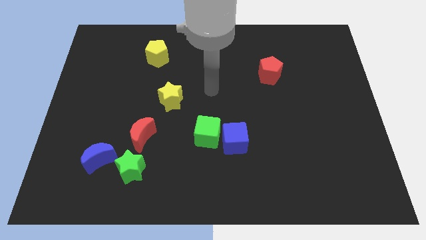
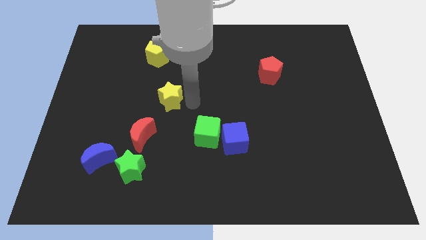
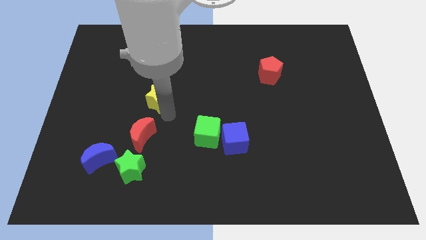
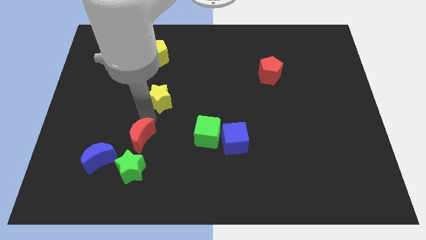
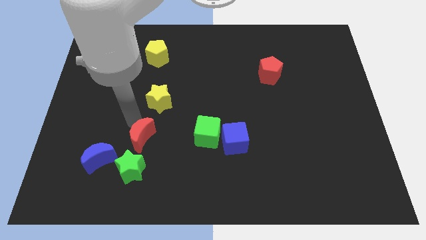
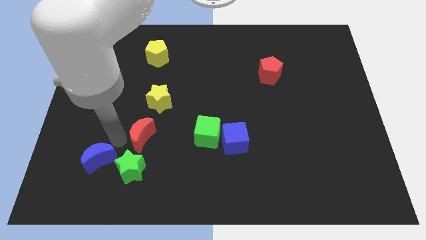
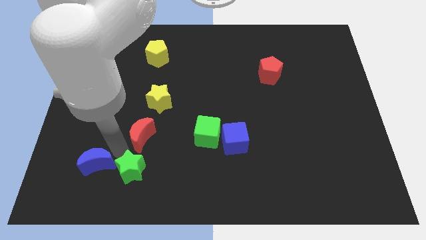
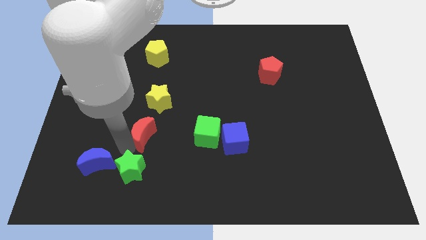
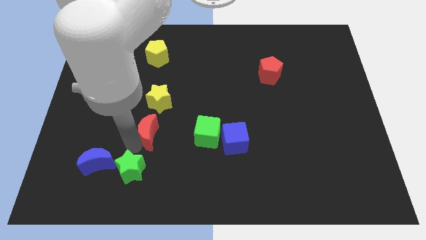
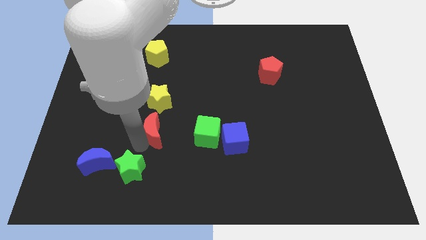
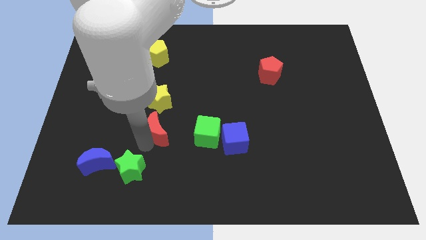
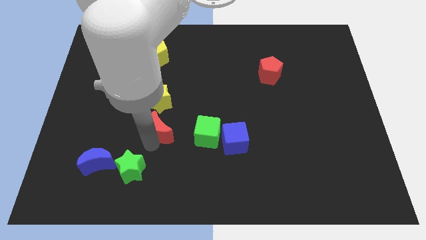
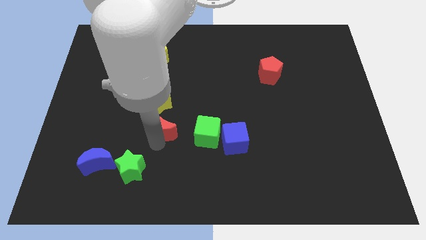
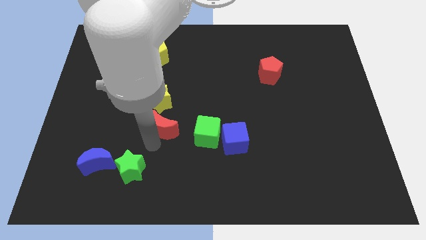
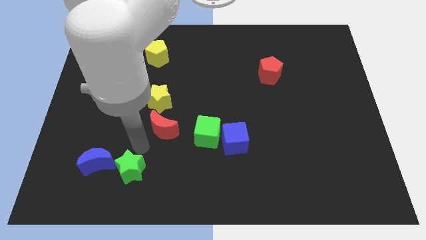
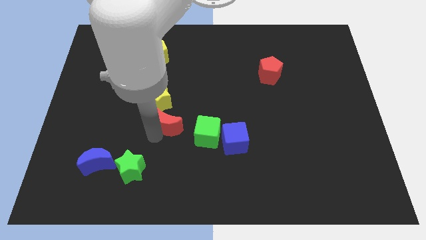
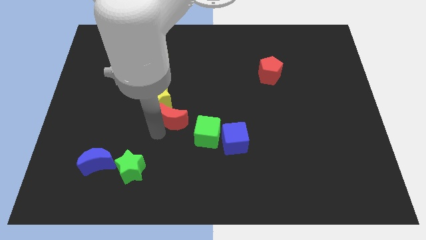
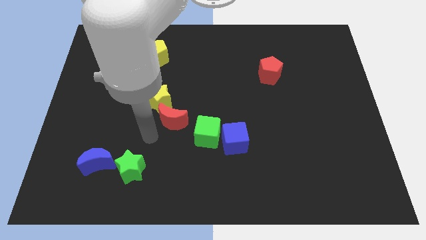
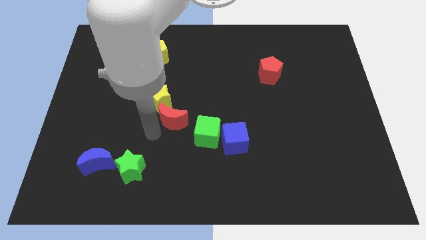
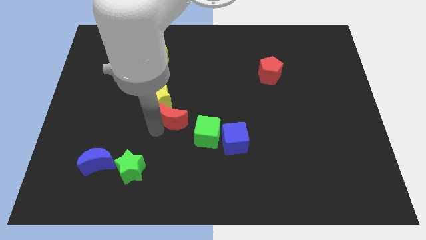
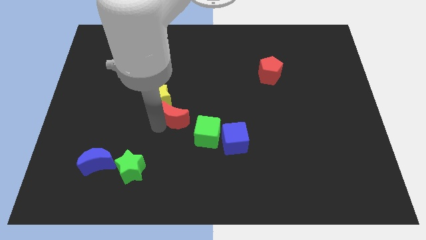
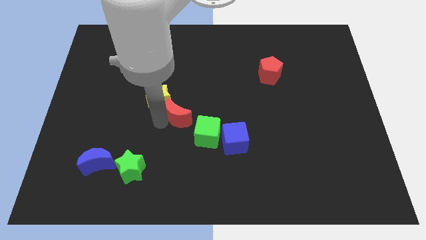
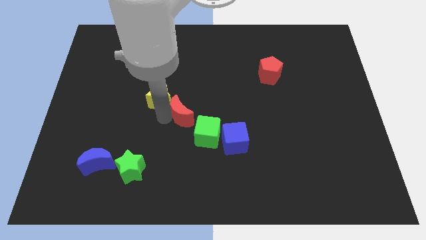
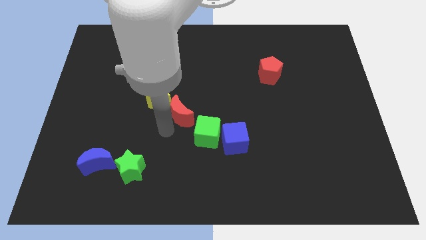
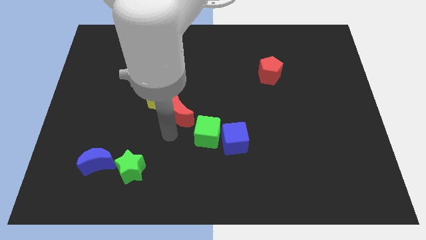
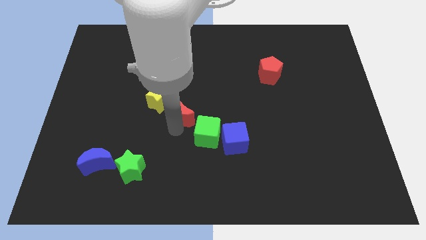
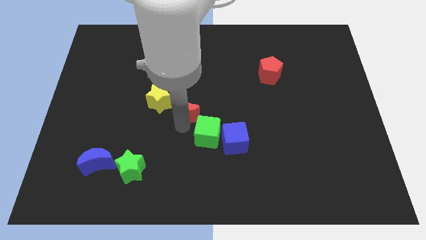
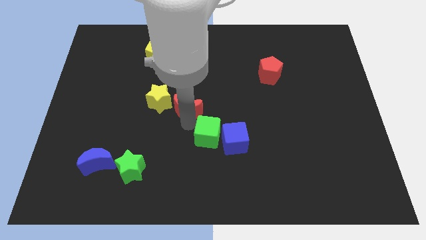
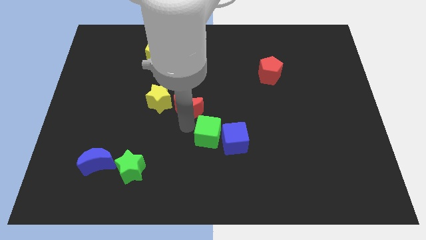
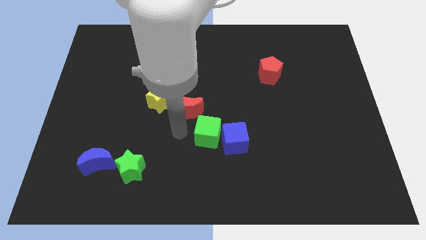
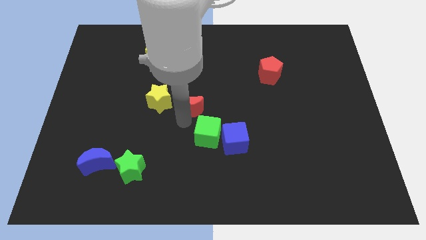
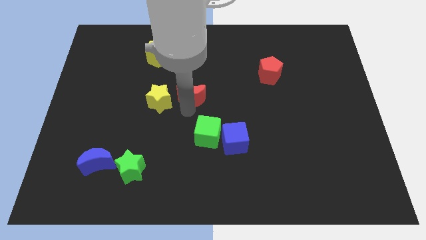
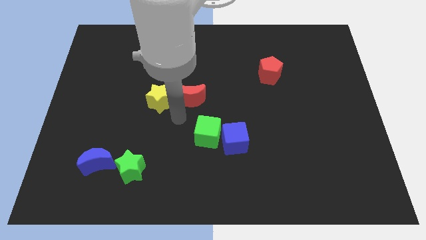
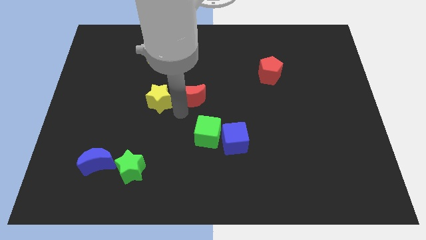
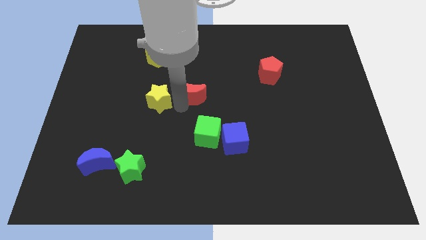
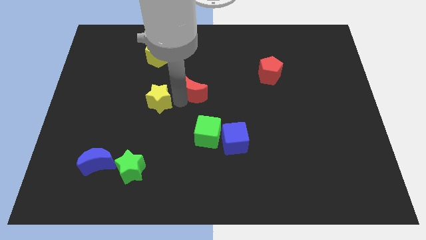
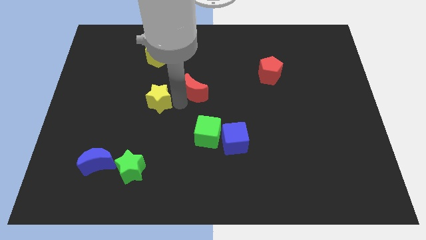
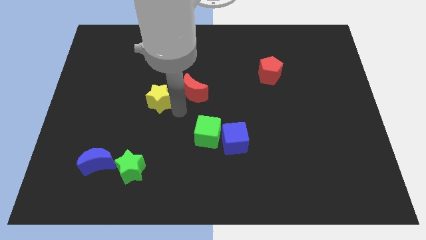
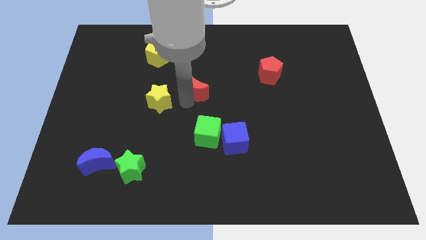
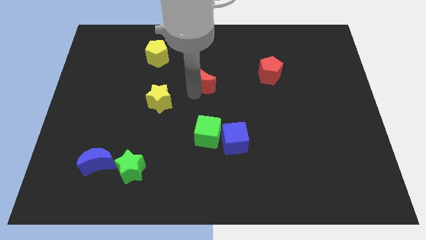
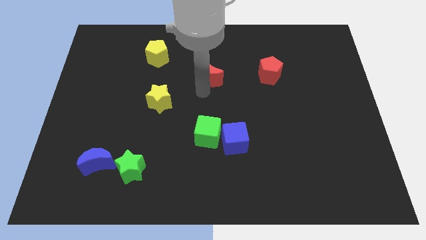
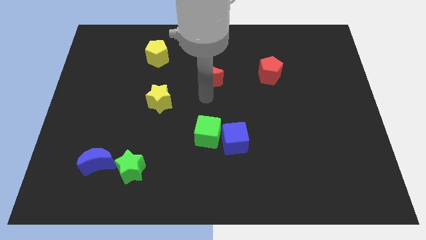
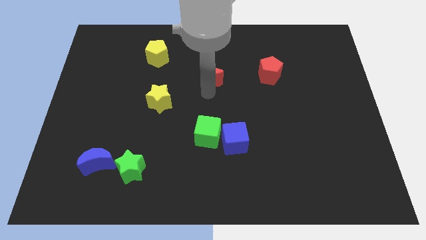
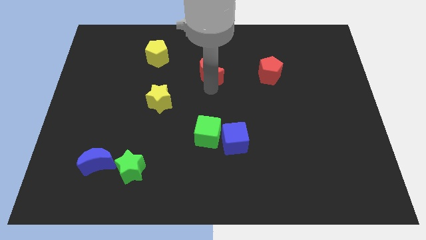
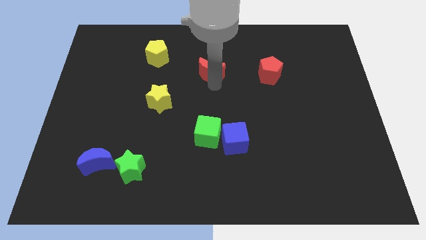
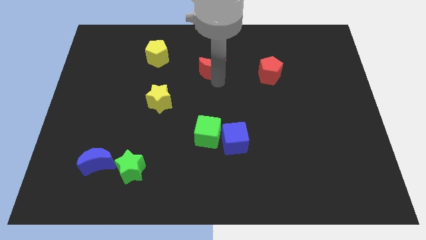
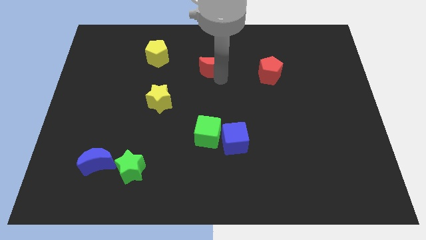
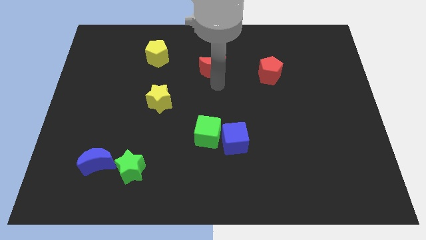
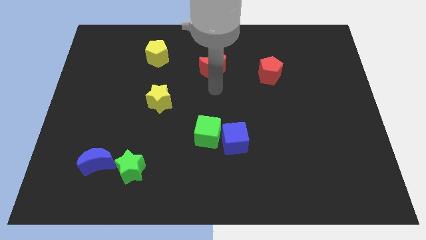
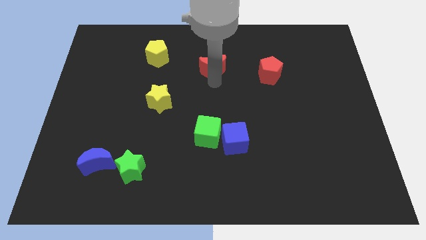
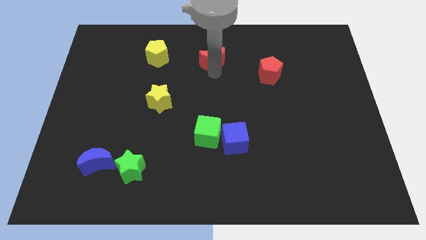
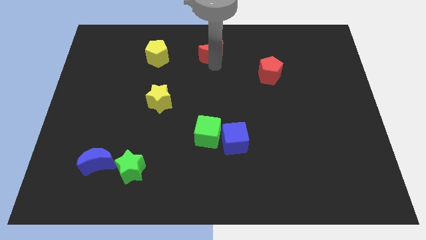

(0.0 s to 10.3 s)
push the red moon to the towards your base

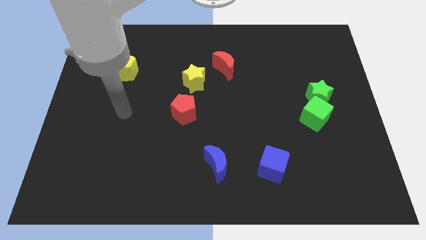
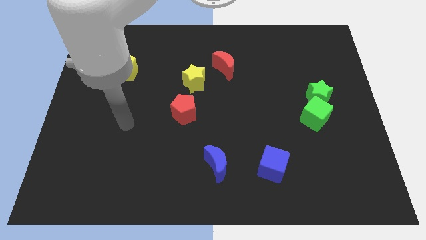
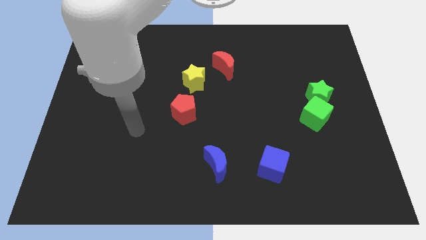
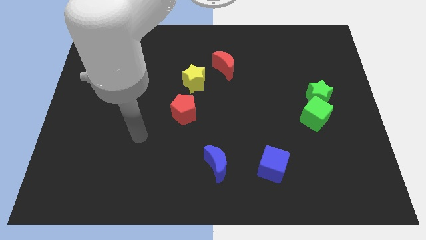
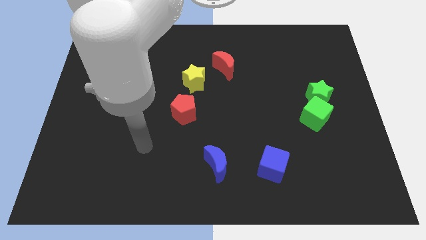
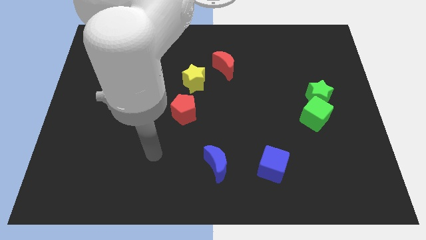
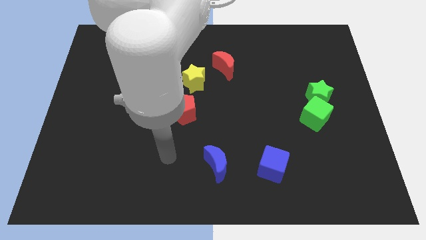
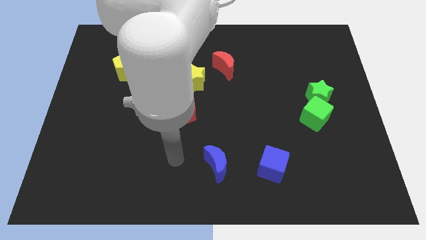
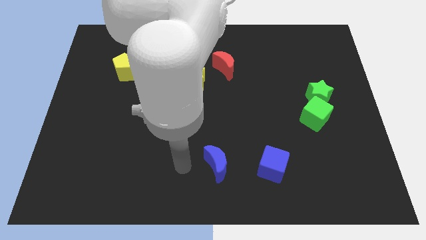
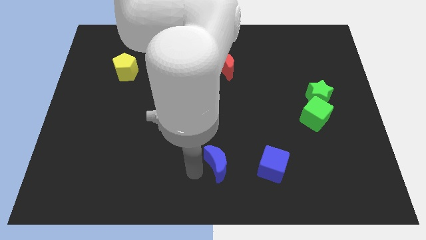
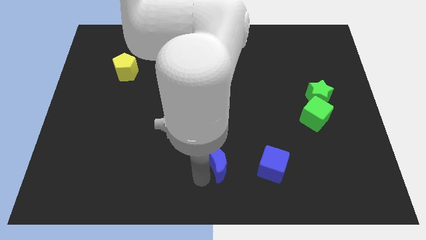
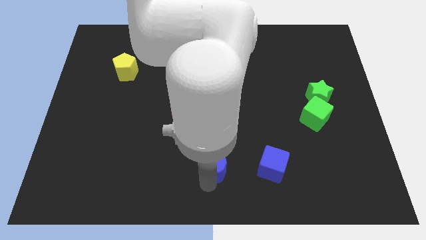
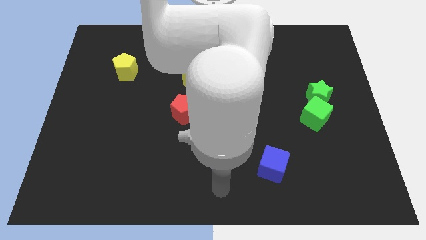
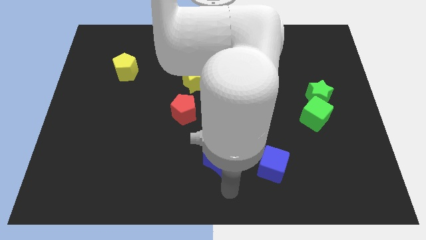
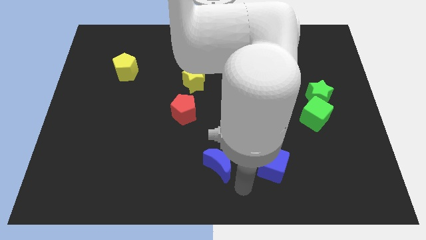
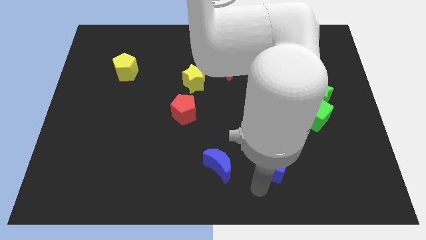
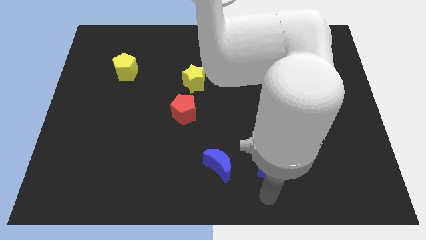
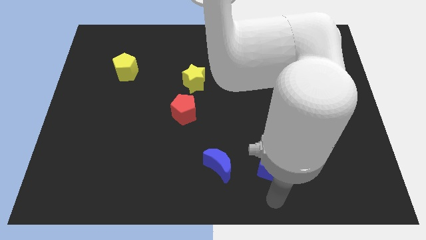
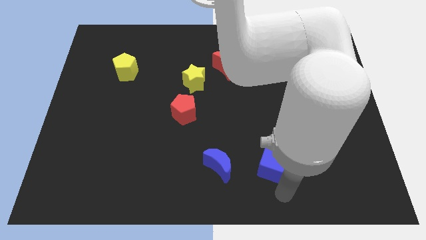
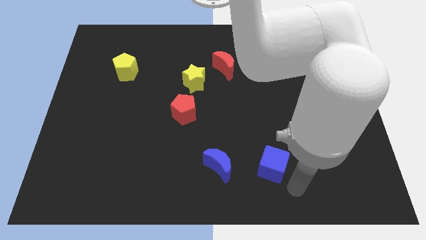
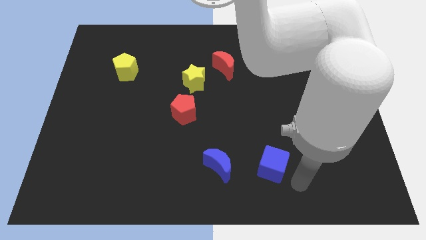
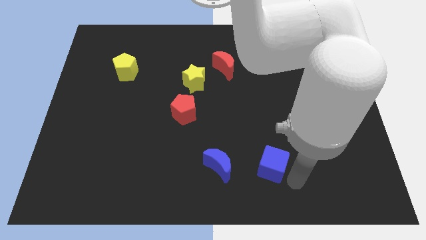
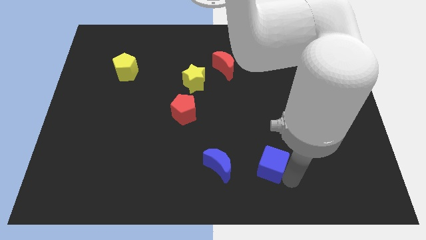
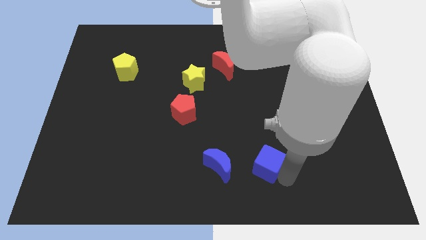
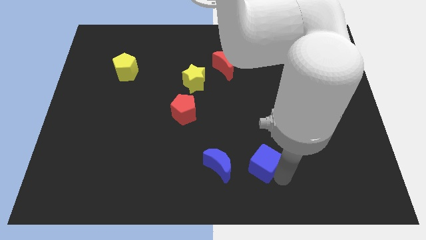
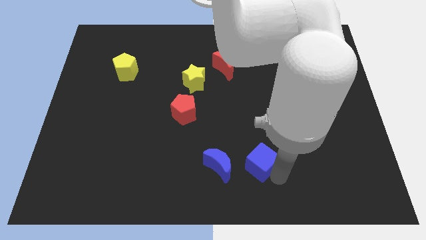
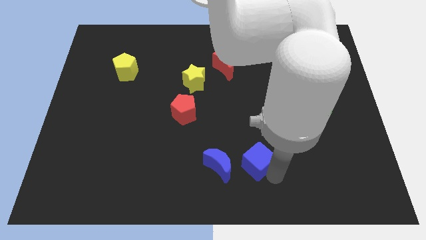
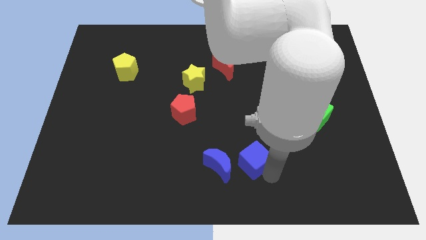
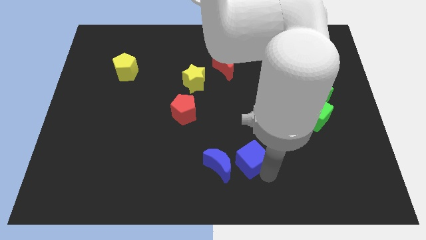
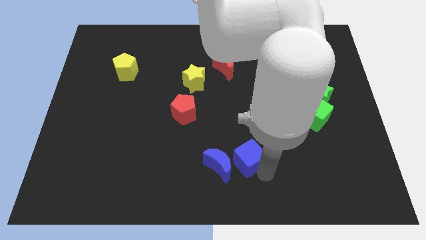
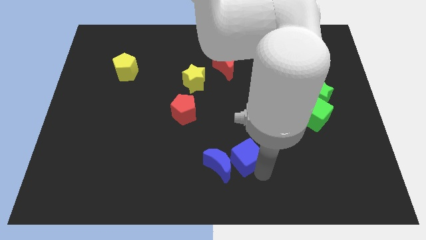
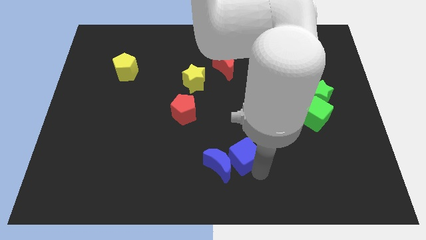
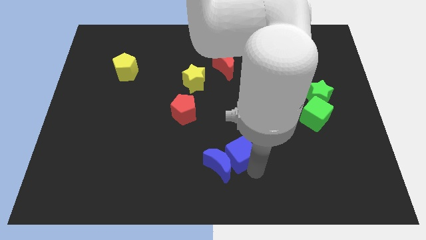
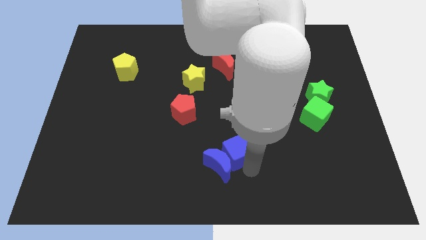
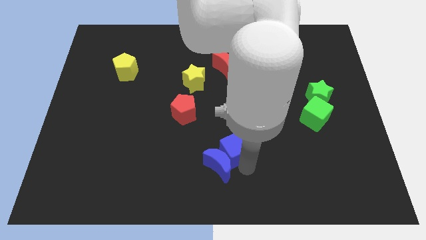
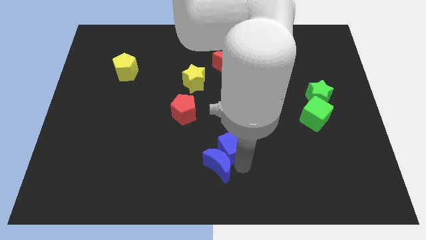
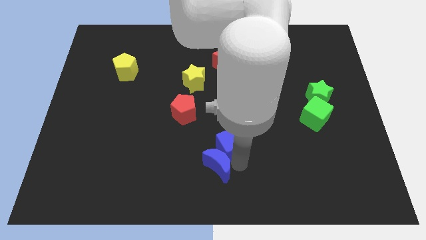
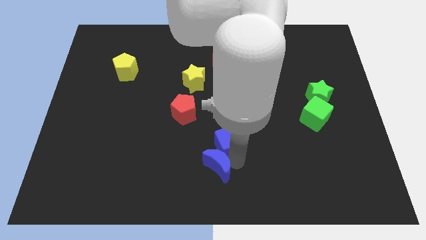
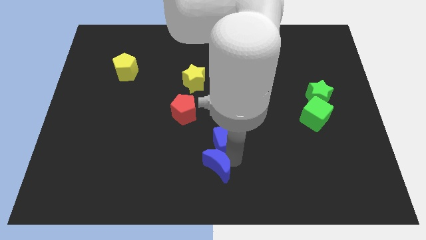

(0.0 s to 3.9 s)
move the blue cube to the center of the board
